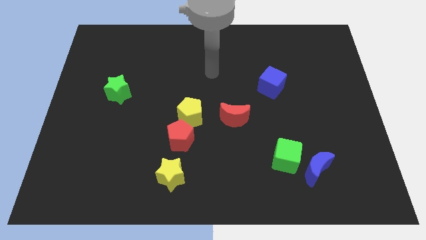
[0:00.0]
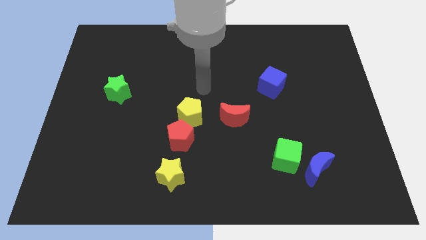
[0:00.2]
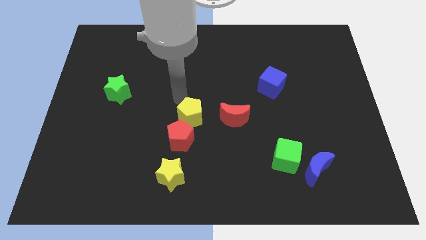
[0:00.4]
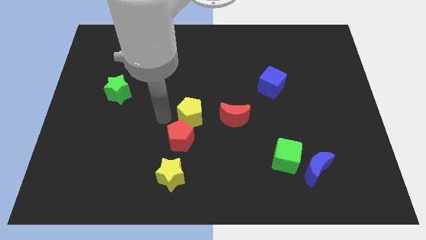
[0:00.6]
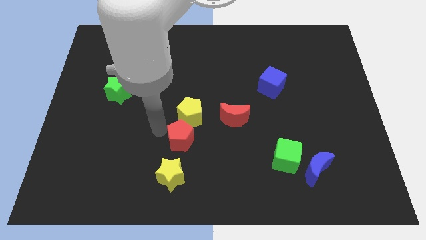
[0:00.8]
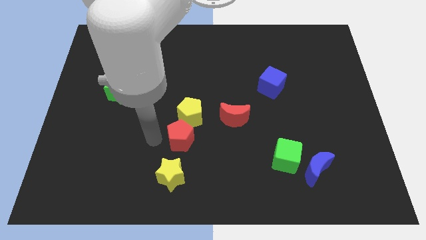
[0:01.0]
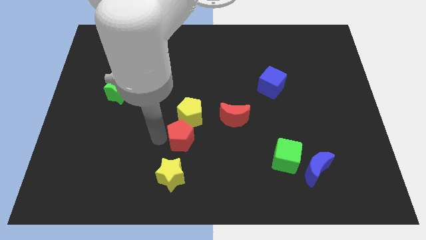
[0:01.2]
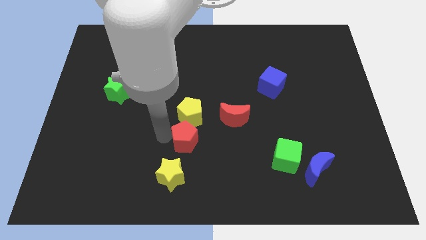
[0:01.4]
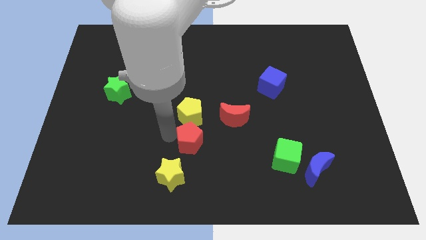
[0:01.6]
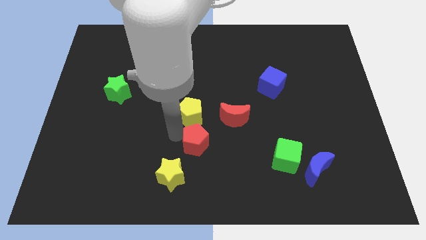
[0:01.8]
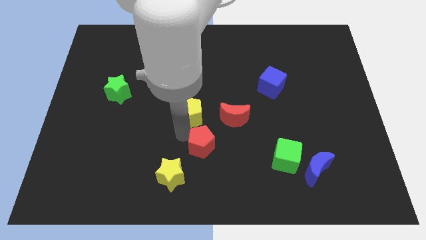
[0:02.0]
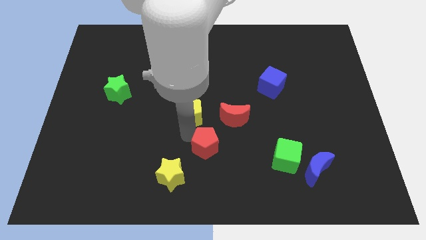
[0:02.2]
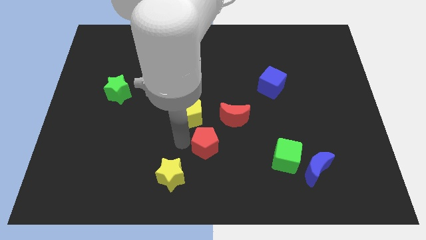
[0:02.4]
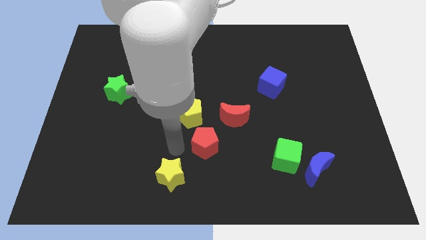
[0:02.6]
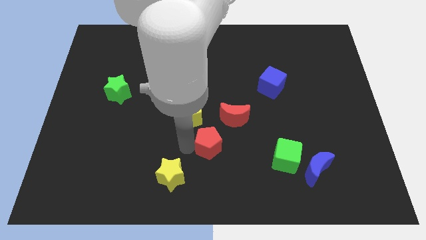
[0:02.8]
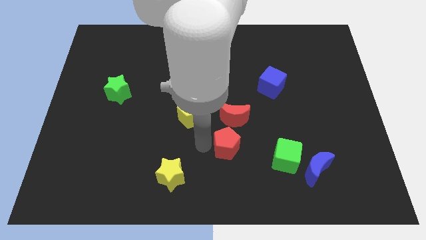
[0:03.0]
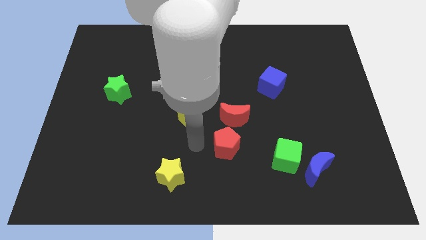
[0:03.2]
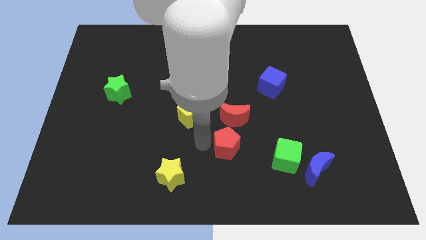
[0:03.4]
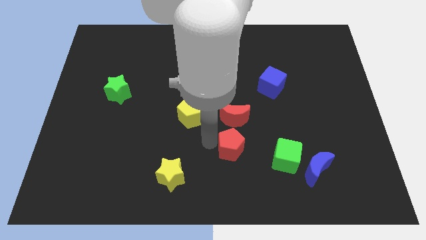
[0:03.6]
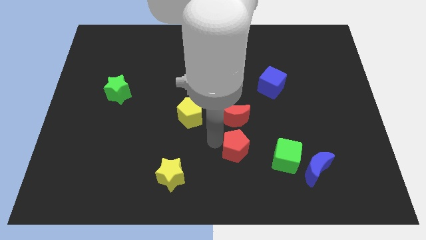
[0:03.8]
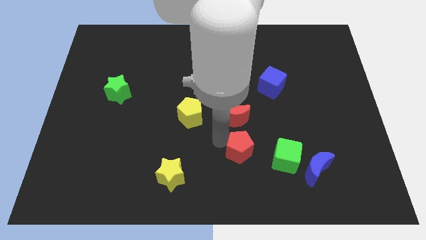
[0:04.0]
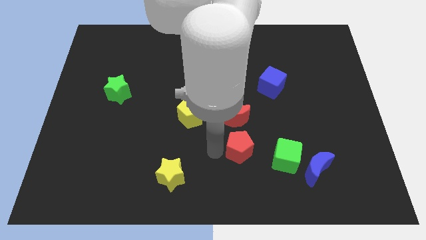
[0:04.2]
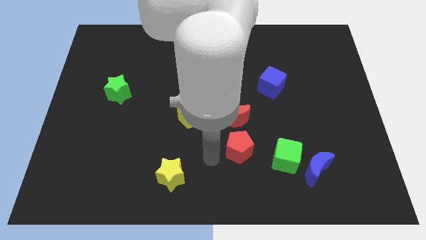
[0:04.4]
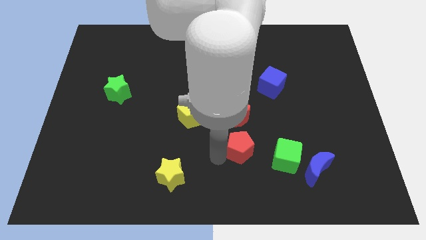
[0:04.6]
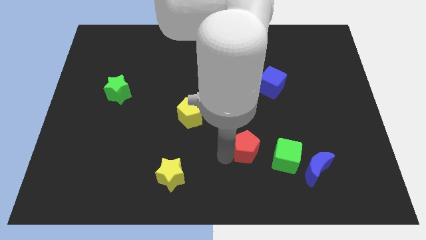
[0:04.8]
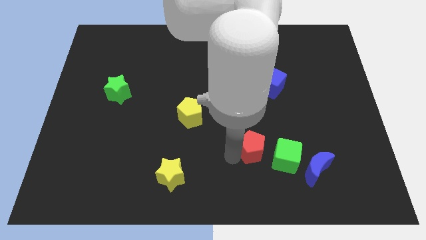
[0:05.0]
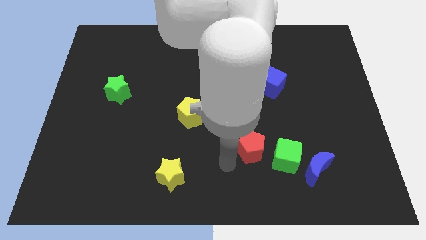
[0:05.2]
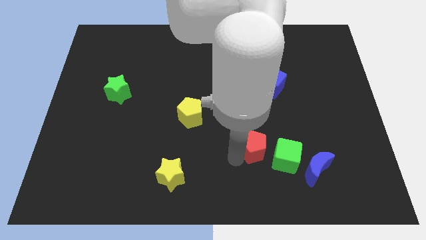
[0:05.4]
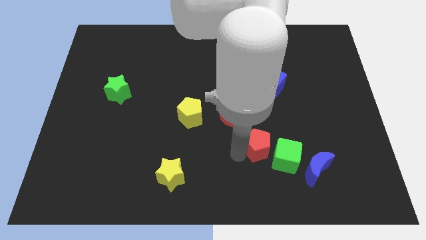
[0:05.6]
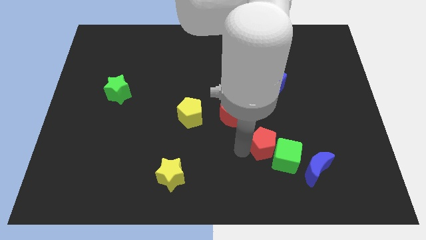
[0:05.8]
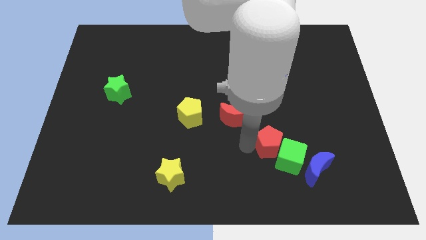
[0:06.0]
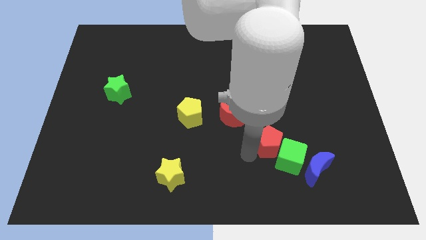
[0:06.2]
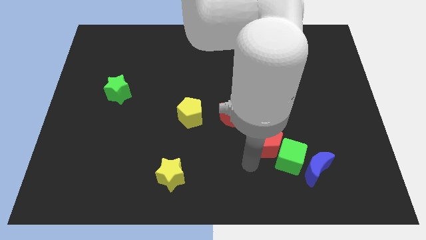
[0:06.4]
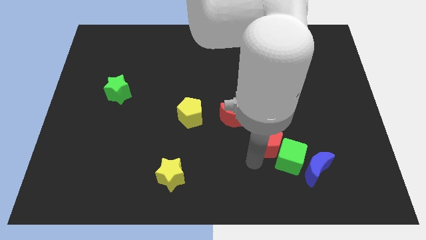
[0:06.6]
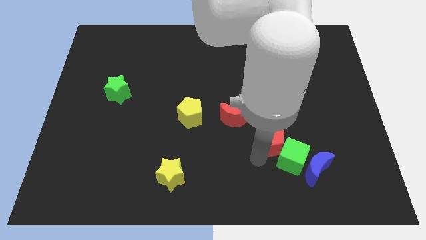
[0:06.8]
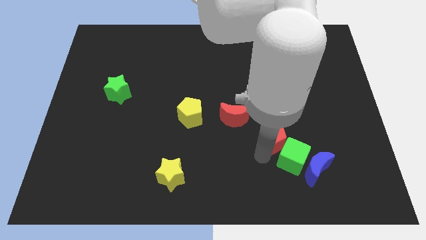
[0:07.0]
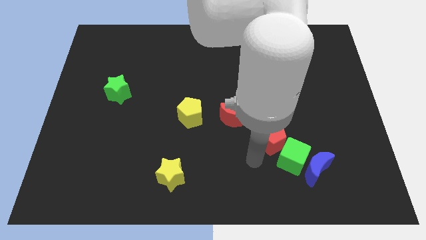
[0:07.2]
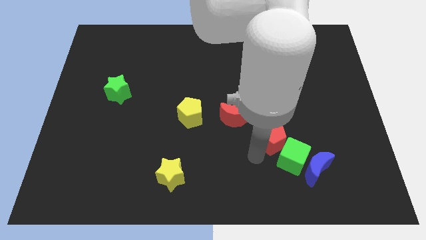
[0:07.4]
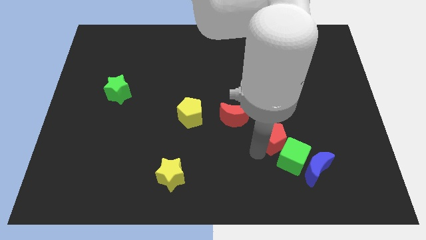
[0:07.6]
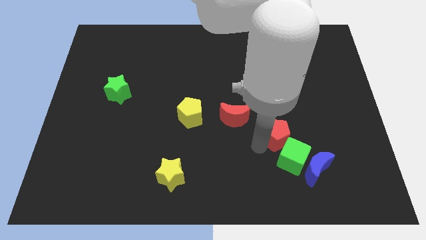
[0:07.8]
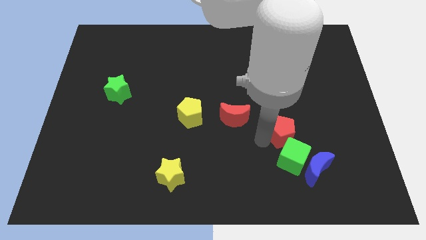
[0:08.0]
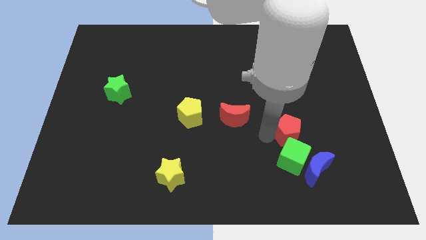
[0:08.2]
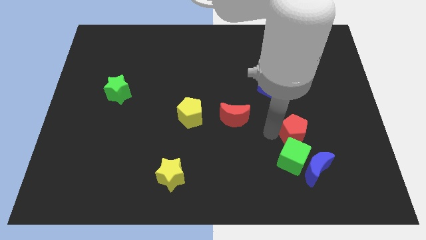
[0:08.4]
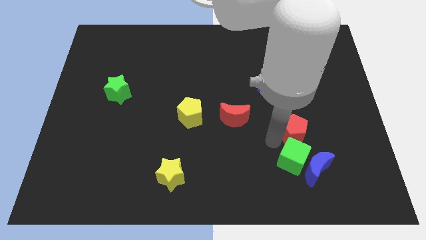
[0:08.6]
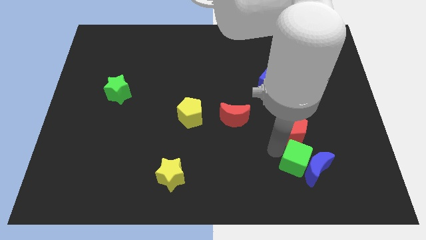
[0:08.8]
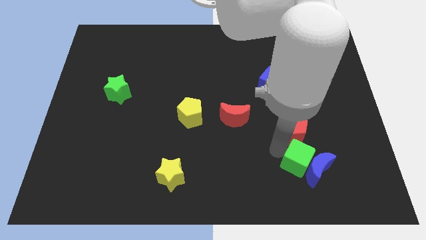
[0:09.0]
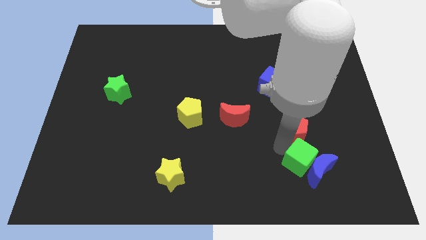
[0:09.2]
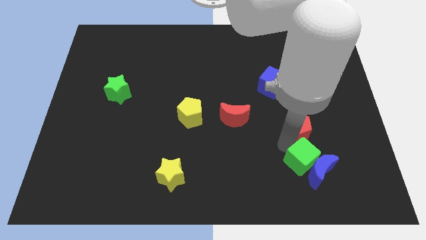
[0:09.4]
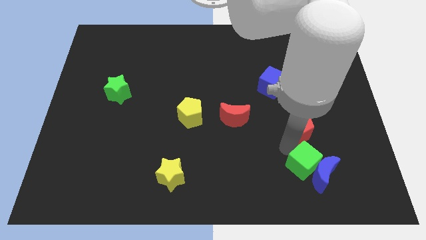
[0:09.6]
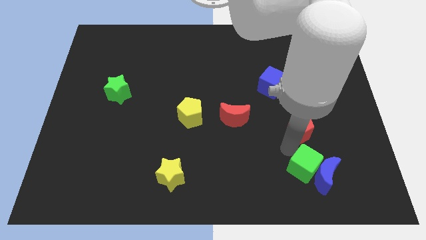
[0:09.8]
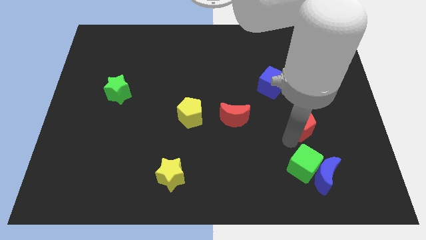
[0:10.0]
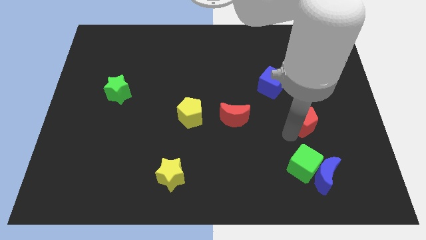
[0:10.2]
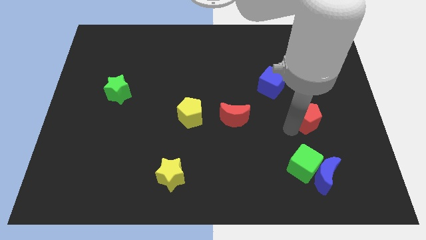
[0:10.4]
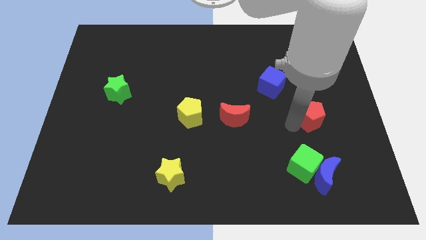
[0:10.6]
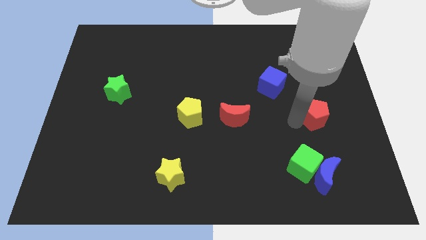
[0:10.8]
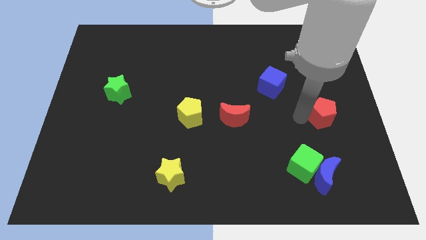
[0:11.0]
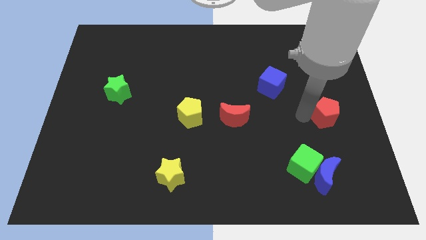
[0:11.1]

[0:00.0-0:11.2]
put the red pentagon to the right side
